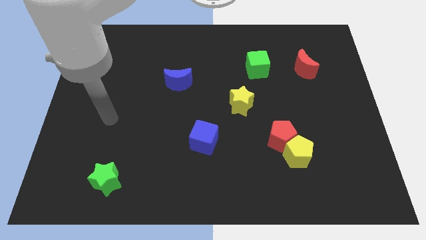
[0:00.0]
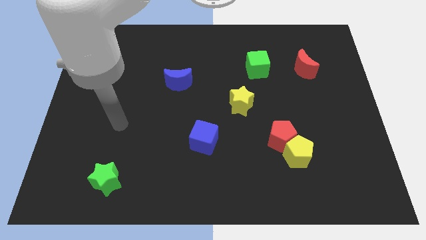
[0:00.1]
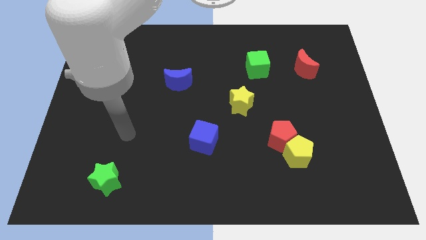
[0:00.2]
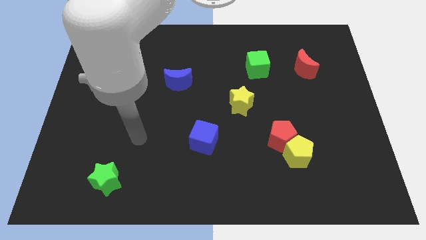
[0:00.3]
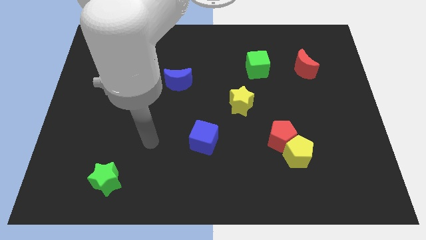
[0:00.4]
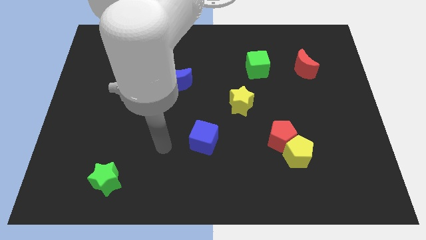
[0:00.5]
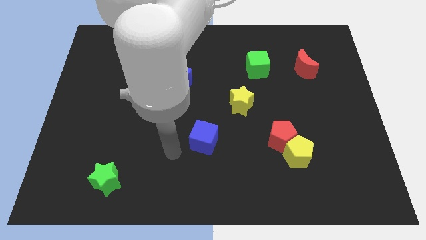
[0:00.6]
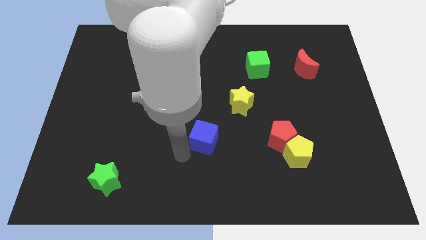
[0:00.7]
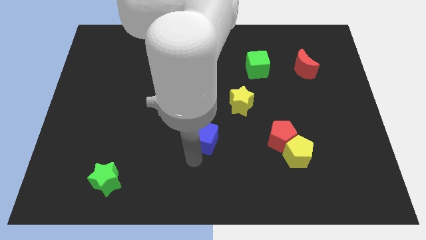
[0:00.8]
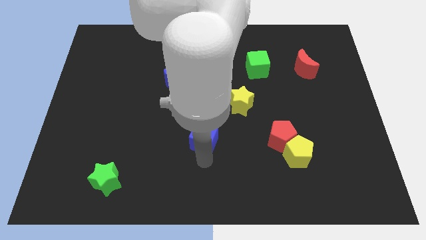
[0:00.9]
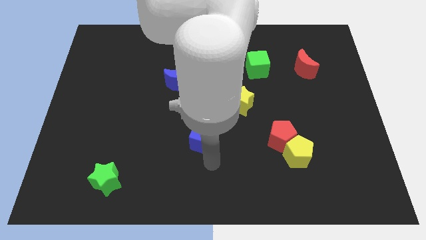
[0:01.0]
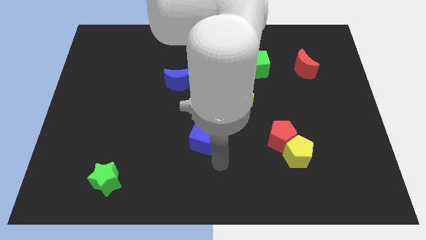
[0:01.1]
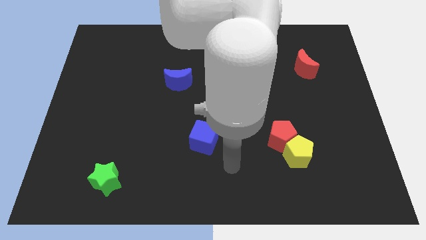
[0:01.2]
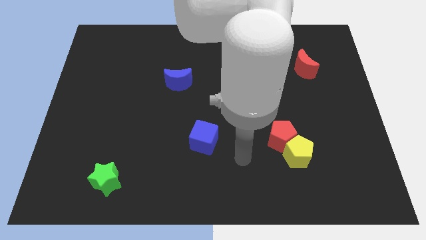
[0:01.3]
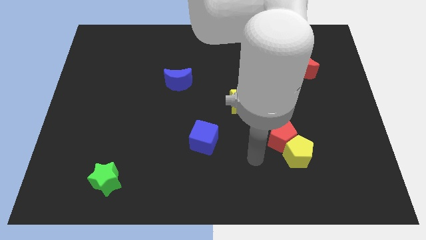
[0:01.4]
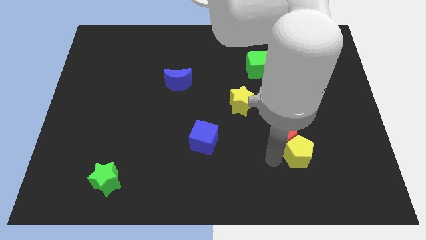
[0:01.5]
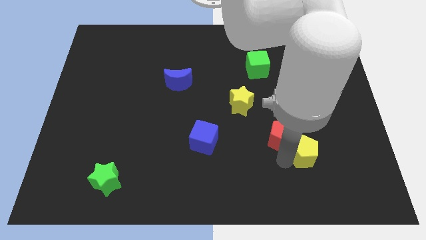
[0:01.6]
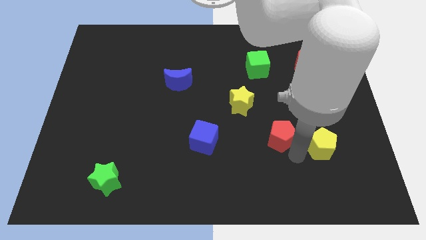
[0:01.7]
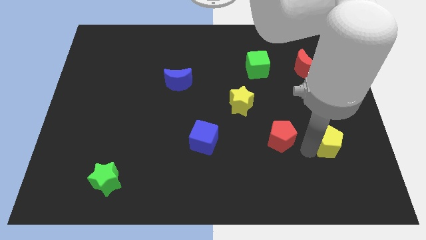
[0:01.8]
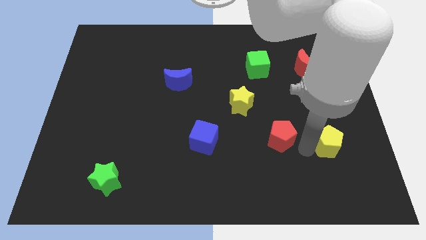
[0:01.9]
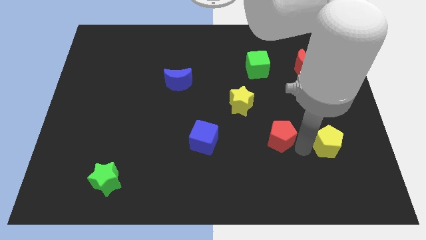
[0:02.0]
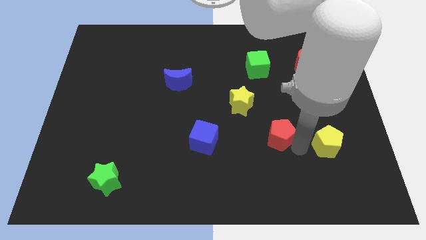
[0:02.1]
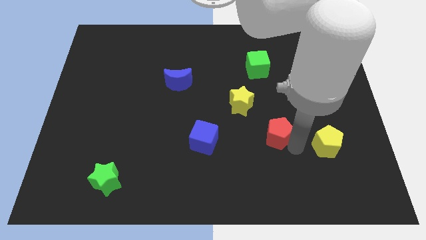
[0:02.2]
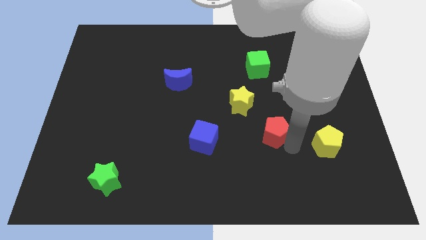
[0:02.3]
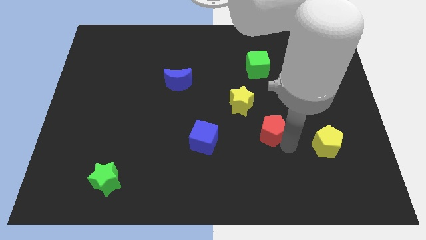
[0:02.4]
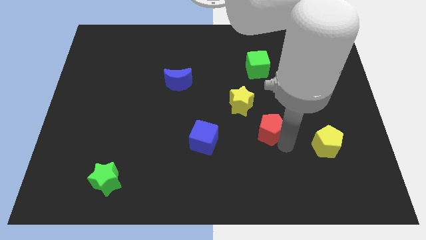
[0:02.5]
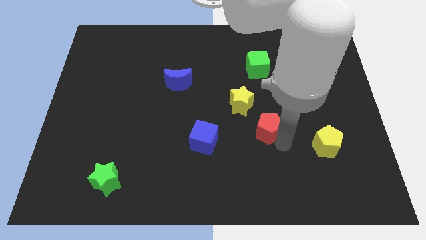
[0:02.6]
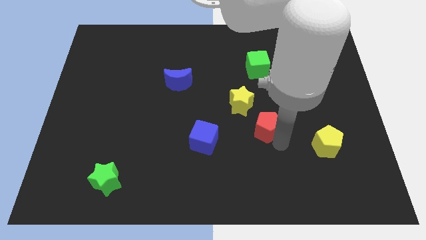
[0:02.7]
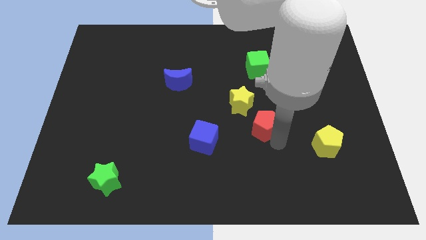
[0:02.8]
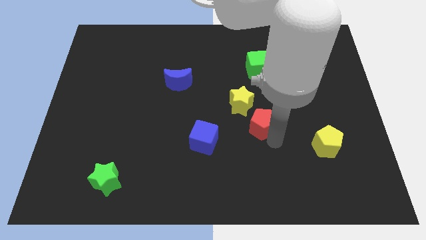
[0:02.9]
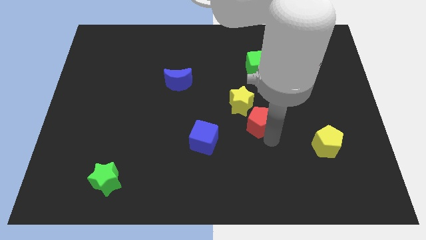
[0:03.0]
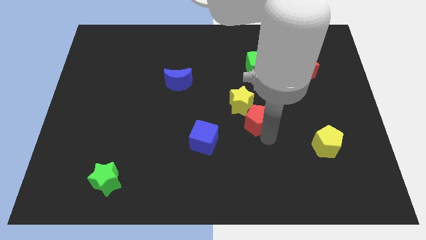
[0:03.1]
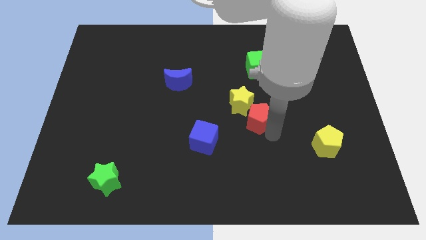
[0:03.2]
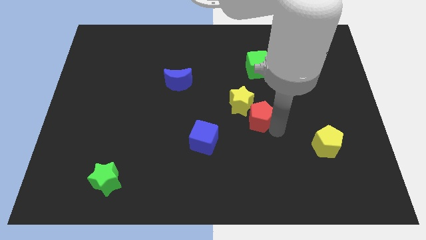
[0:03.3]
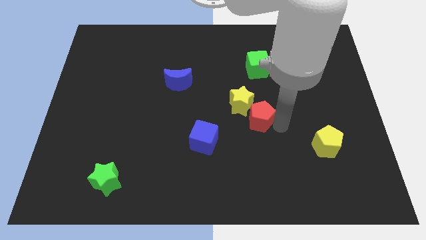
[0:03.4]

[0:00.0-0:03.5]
move the red pentagon up and to the left a little bit

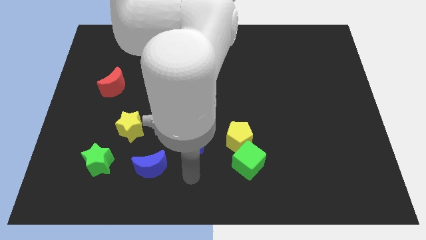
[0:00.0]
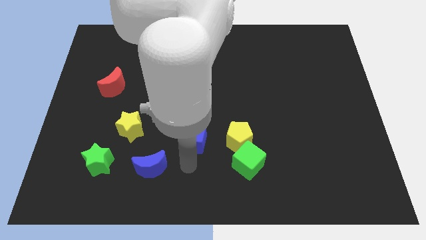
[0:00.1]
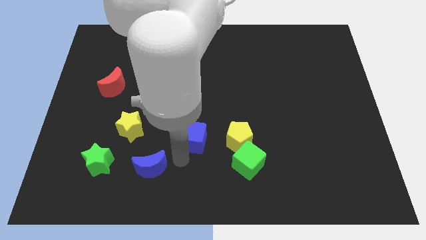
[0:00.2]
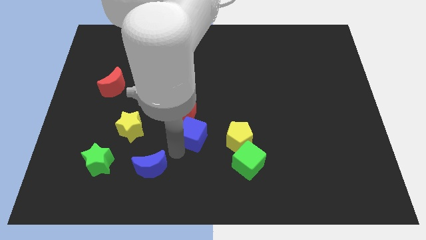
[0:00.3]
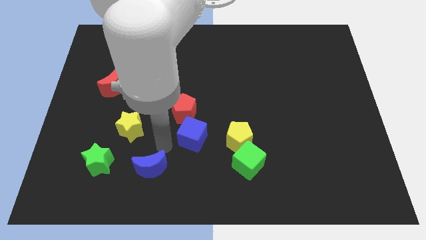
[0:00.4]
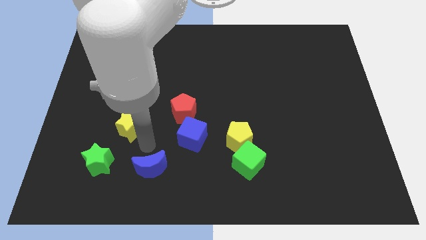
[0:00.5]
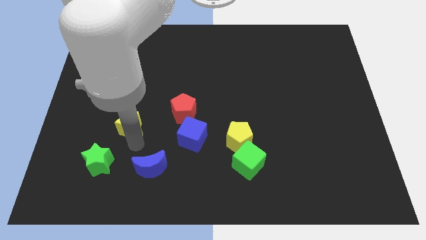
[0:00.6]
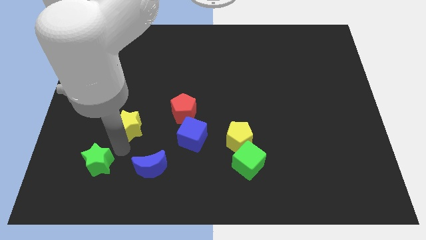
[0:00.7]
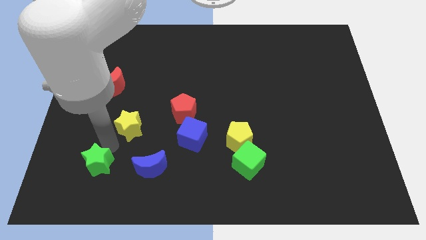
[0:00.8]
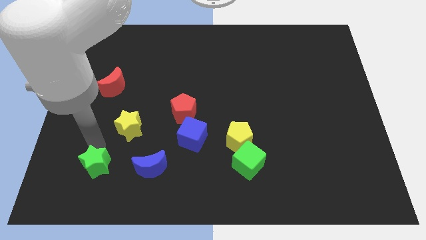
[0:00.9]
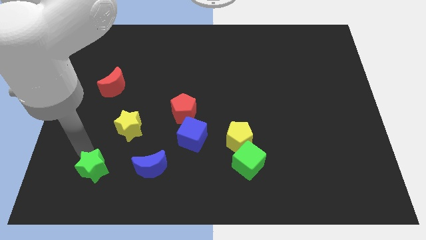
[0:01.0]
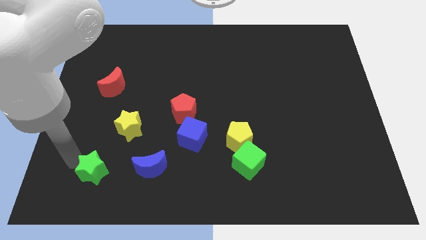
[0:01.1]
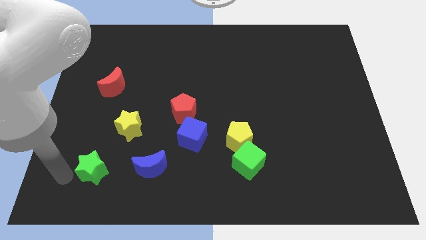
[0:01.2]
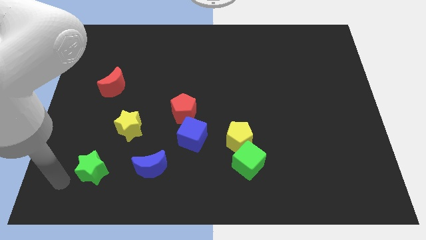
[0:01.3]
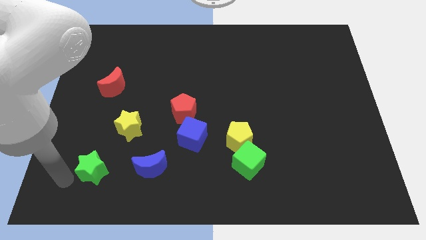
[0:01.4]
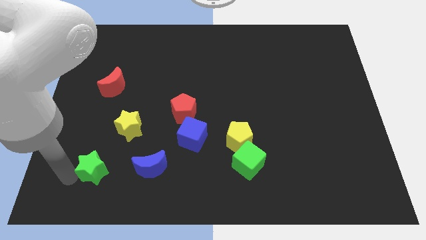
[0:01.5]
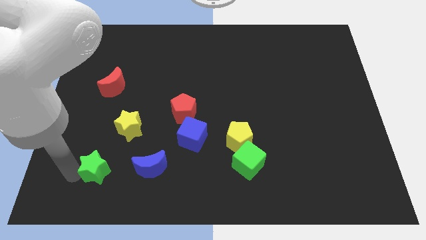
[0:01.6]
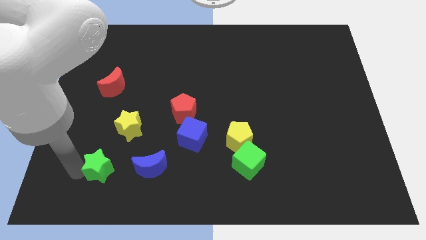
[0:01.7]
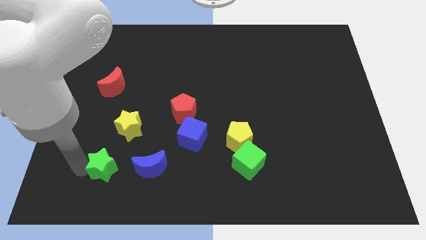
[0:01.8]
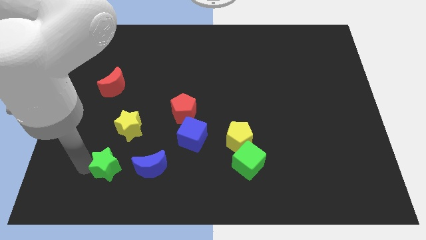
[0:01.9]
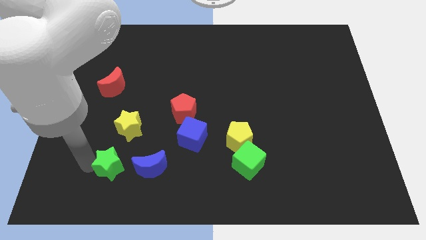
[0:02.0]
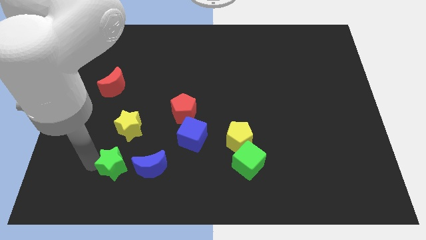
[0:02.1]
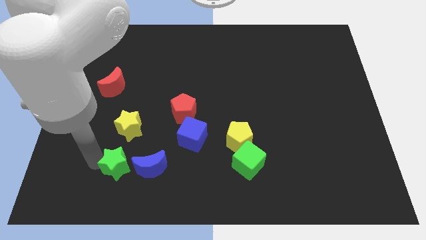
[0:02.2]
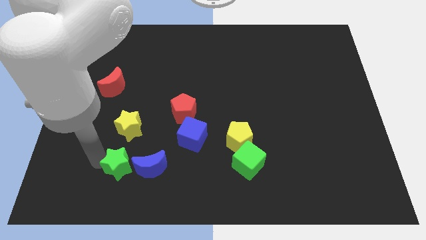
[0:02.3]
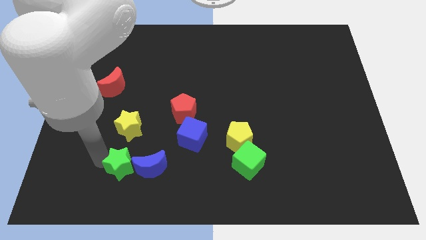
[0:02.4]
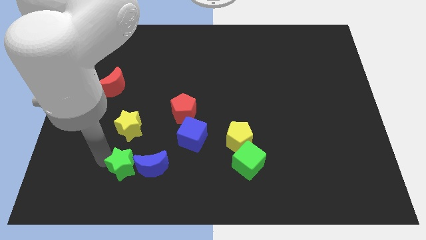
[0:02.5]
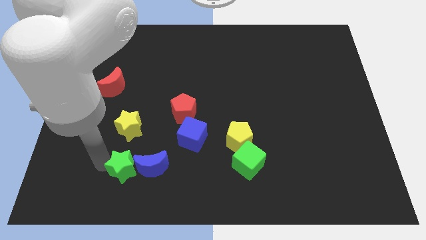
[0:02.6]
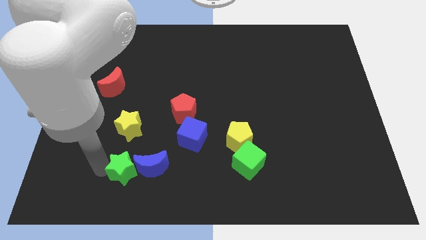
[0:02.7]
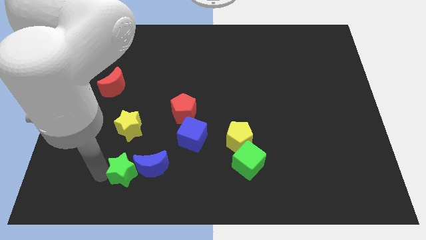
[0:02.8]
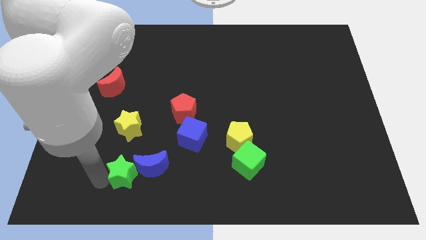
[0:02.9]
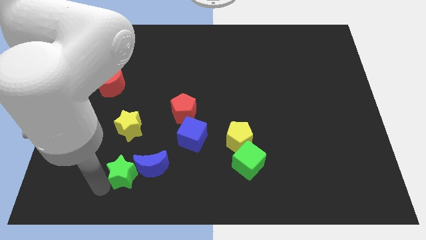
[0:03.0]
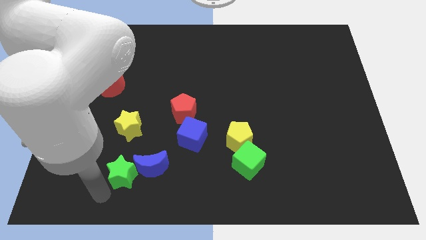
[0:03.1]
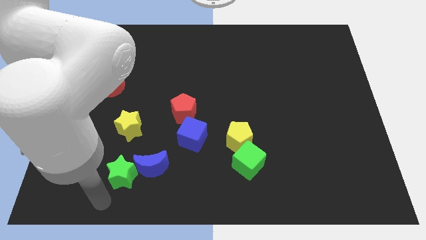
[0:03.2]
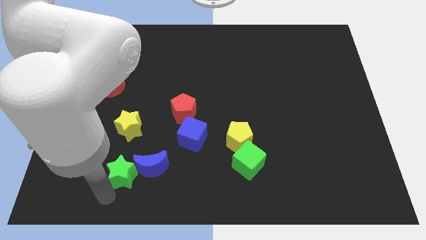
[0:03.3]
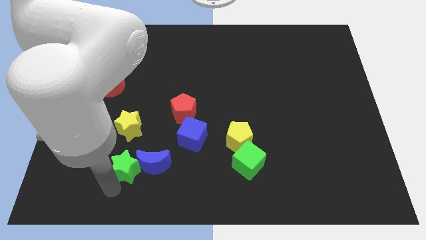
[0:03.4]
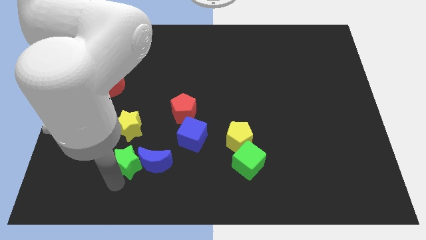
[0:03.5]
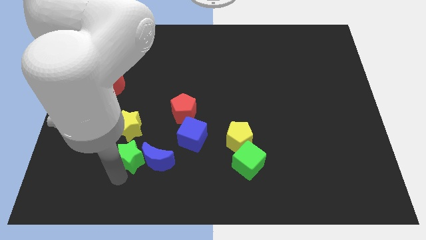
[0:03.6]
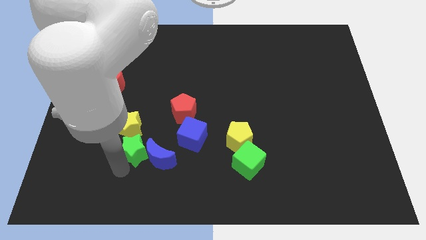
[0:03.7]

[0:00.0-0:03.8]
slide the green star right a bit

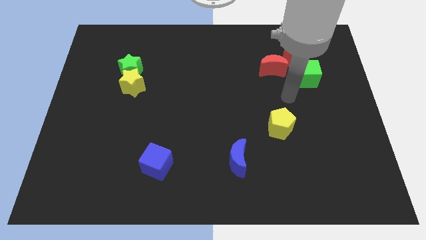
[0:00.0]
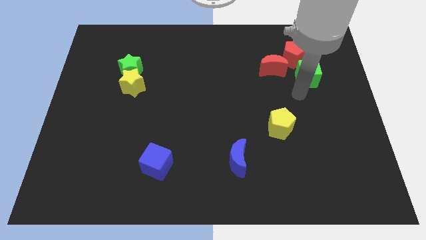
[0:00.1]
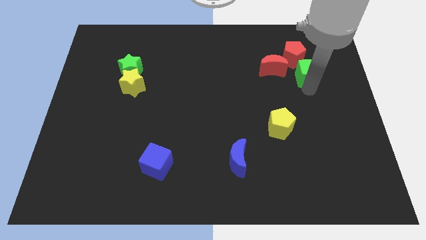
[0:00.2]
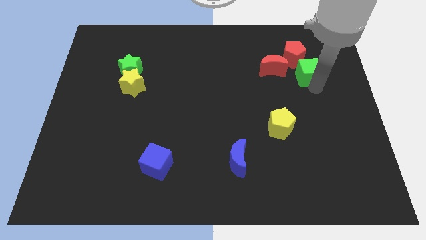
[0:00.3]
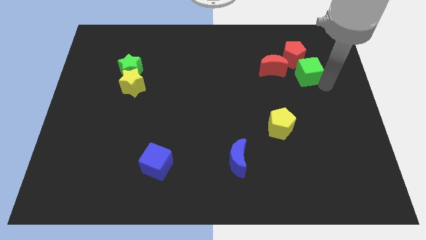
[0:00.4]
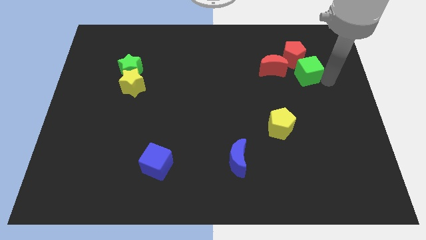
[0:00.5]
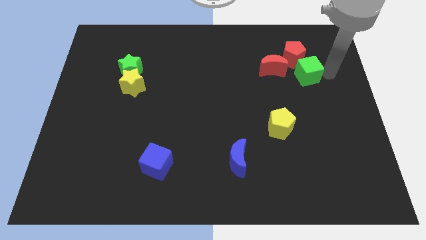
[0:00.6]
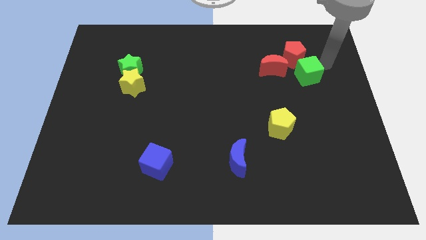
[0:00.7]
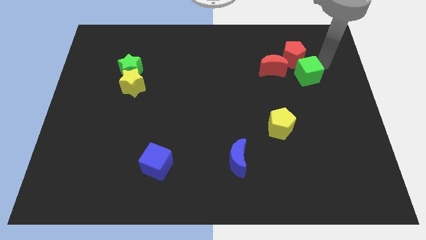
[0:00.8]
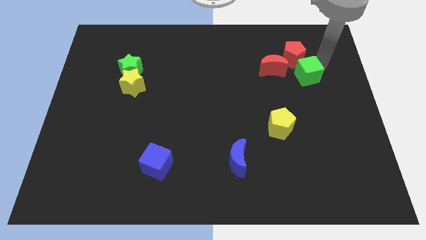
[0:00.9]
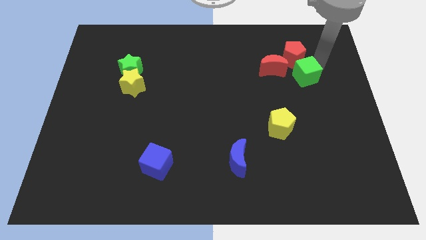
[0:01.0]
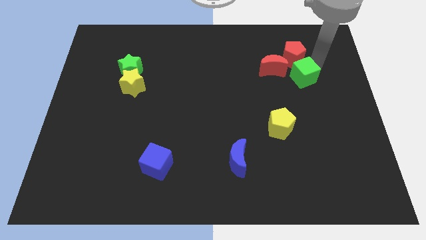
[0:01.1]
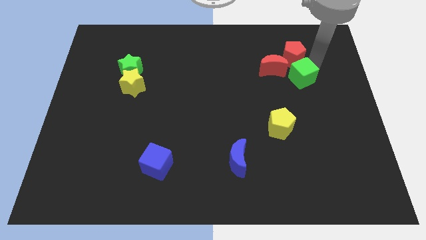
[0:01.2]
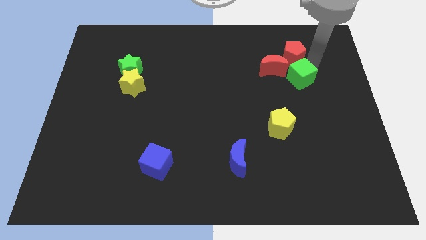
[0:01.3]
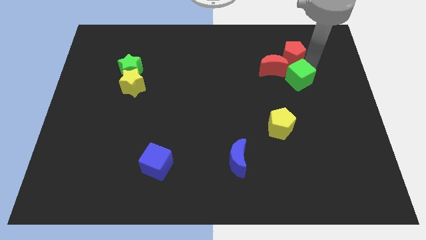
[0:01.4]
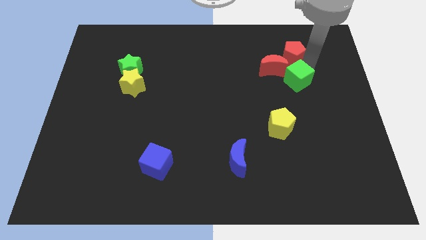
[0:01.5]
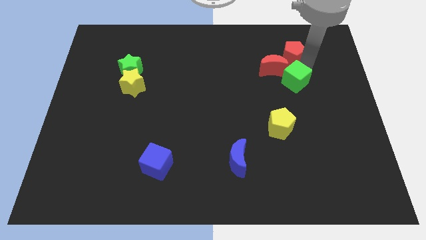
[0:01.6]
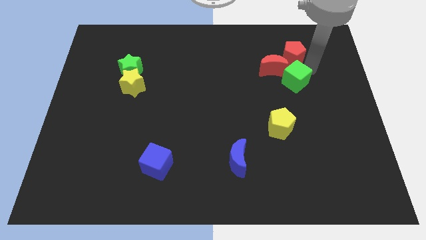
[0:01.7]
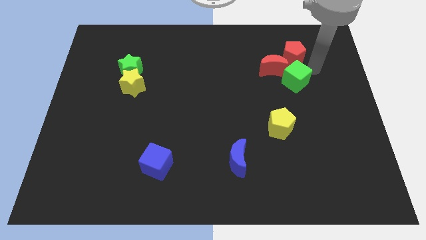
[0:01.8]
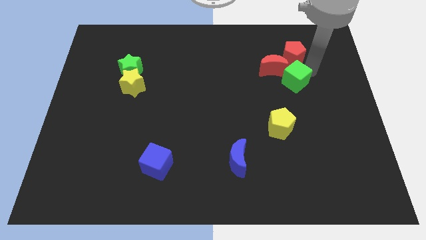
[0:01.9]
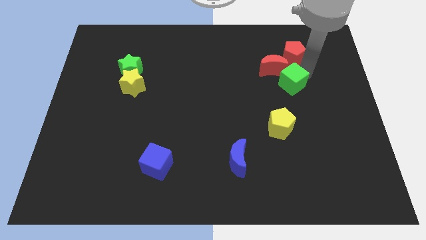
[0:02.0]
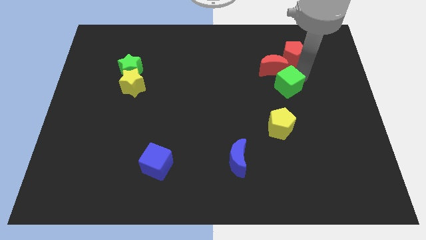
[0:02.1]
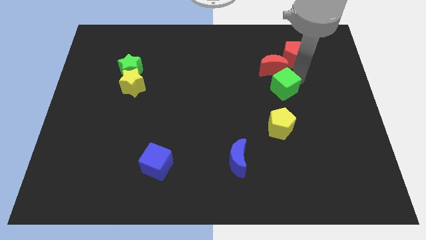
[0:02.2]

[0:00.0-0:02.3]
push the green cube a little downwards and then left
